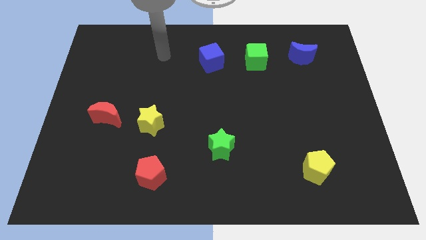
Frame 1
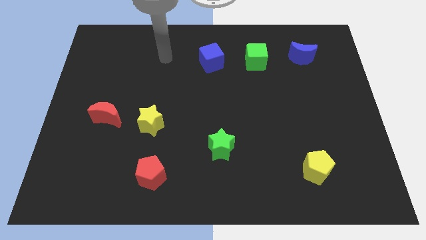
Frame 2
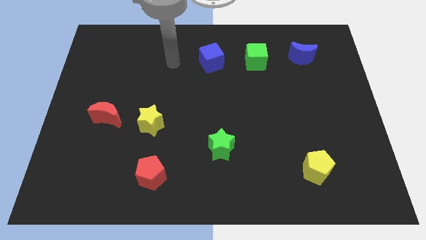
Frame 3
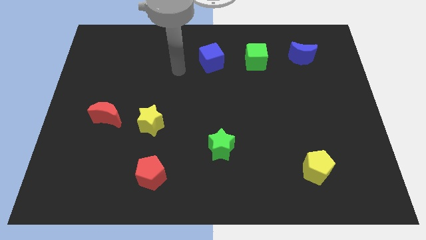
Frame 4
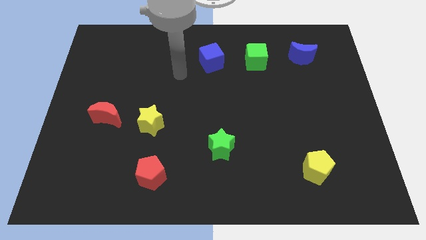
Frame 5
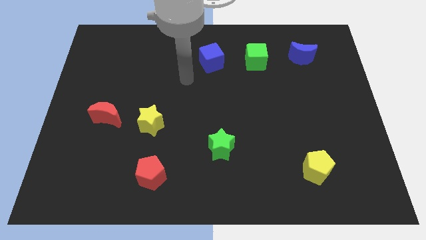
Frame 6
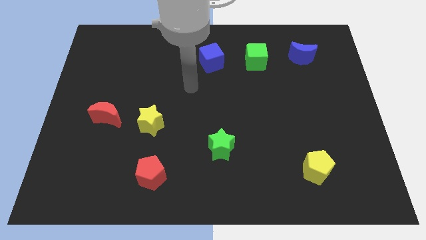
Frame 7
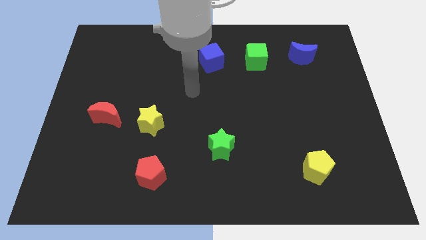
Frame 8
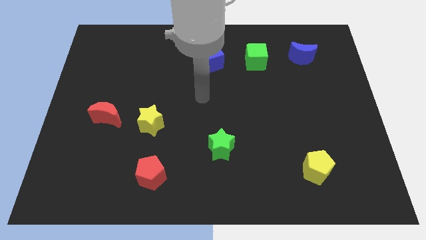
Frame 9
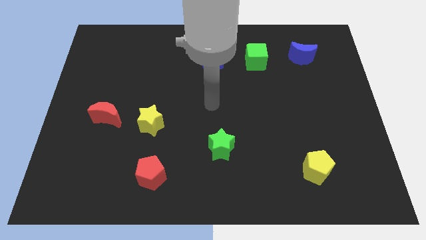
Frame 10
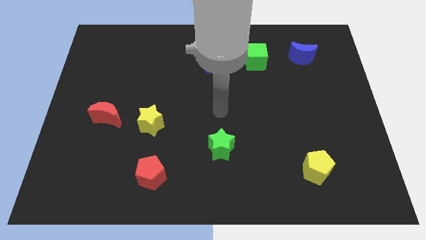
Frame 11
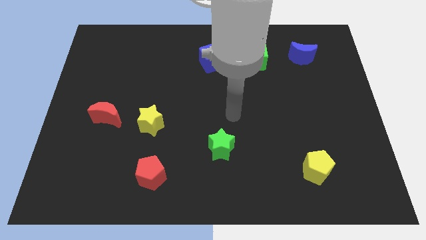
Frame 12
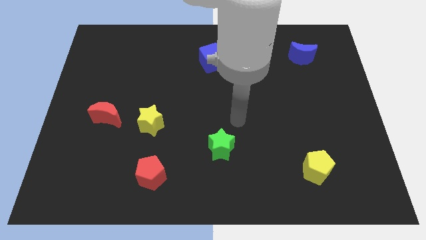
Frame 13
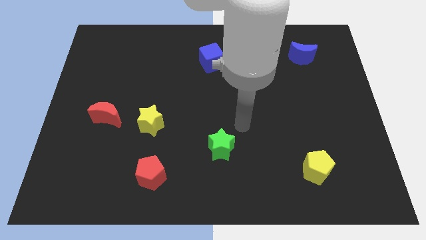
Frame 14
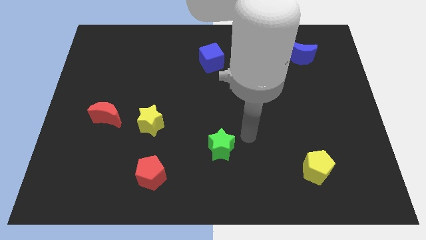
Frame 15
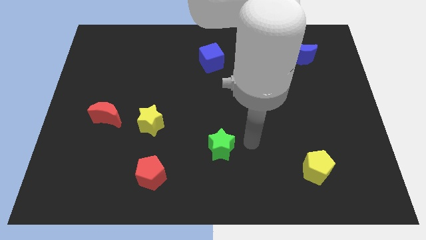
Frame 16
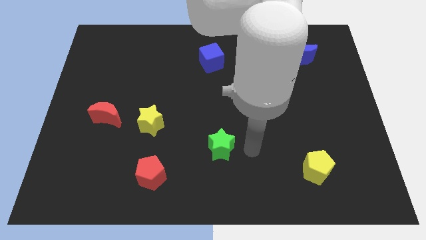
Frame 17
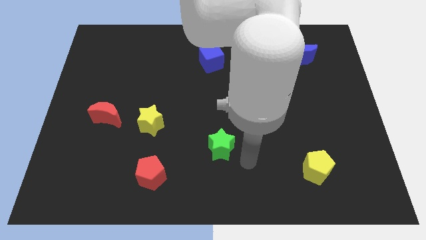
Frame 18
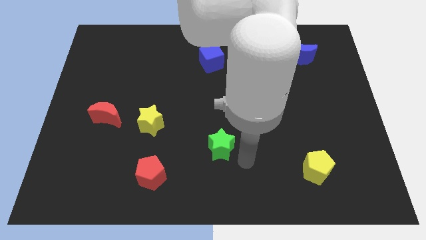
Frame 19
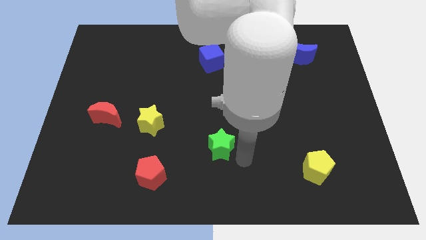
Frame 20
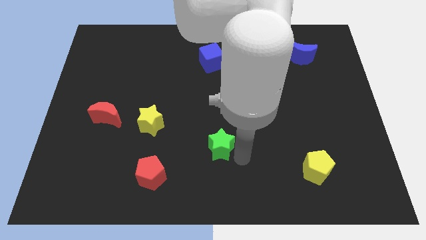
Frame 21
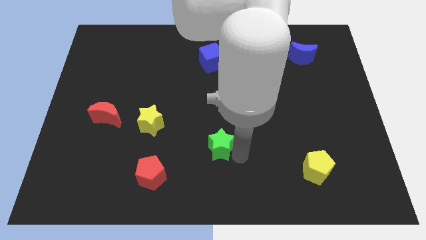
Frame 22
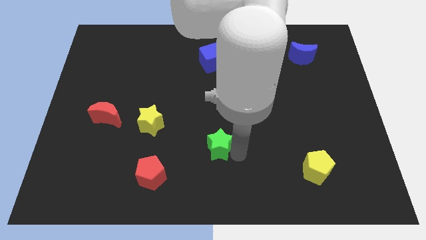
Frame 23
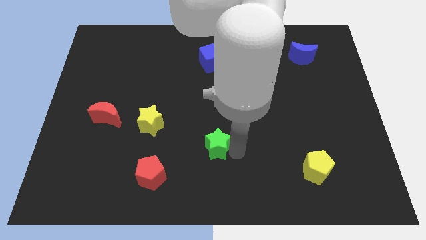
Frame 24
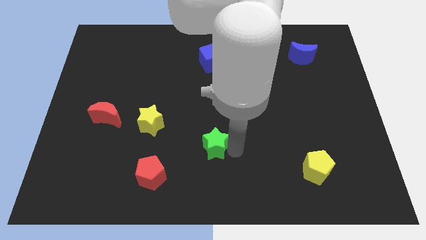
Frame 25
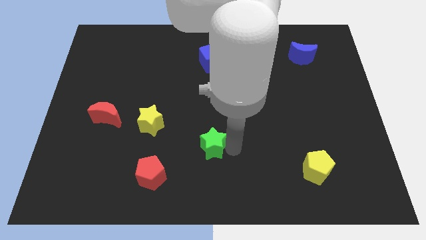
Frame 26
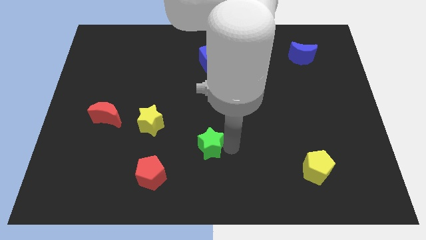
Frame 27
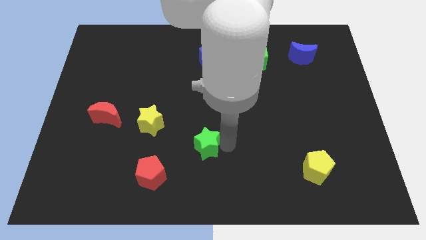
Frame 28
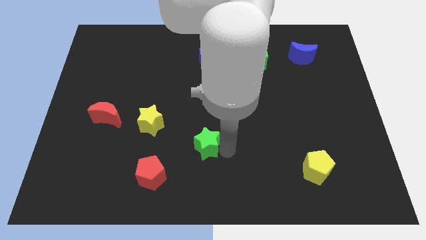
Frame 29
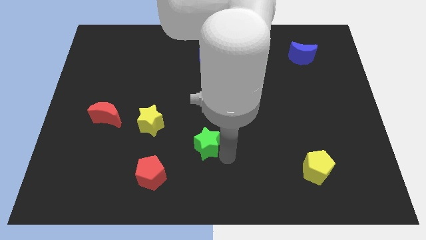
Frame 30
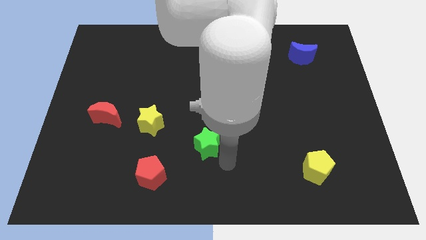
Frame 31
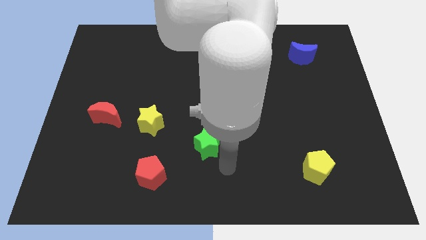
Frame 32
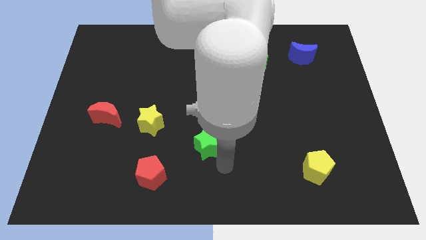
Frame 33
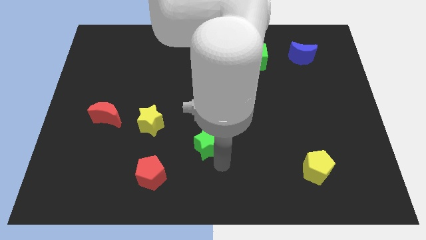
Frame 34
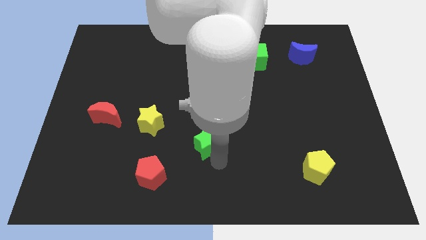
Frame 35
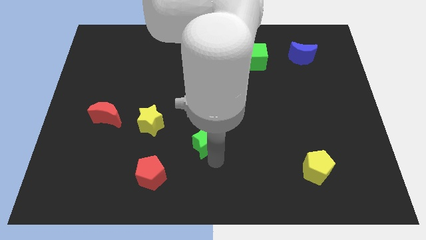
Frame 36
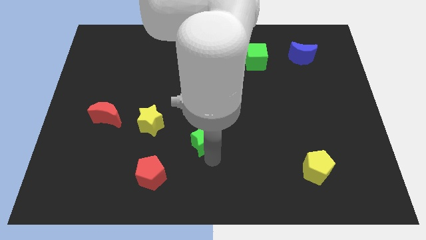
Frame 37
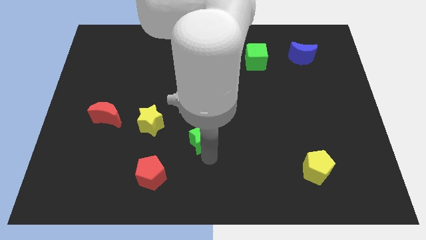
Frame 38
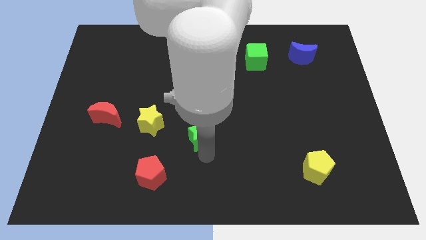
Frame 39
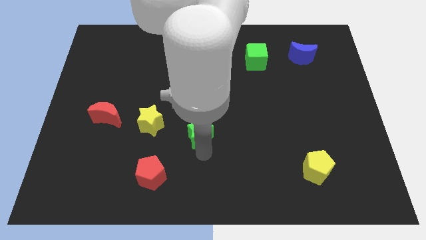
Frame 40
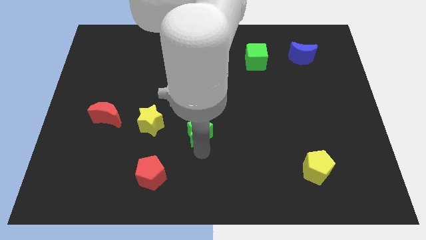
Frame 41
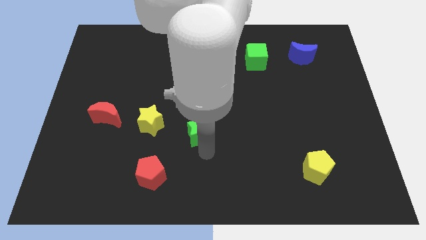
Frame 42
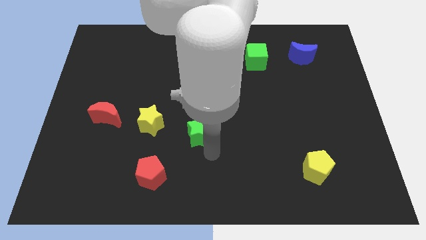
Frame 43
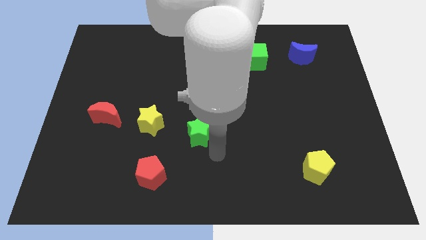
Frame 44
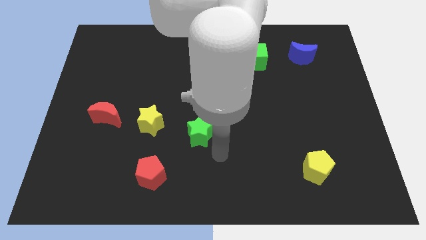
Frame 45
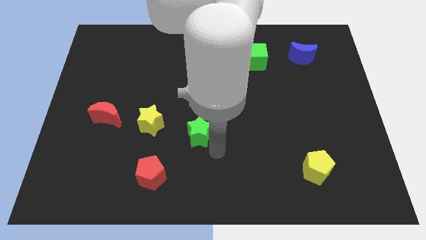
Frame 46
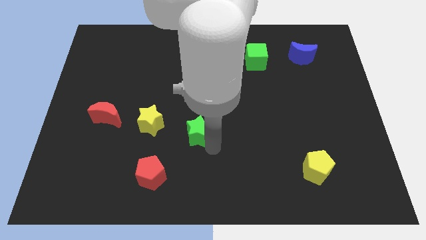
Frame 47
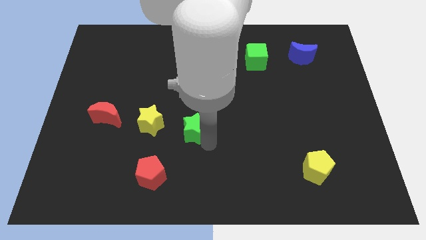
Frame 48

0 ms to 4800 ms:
slide the green star diagonally upwards and to the left somewhat

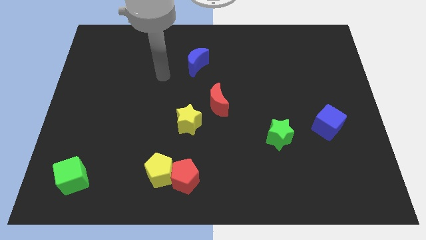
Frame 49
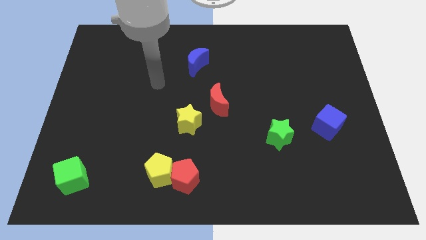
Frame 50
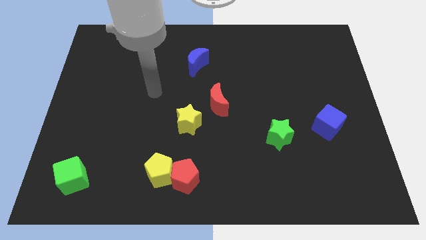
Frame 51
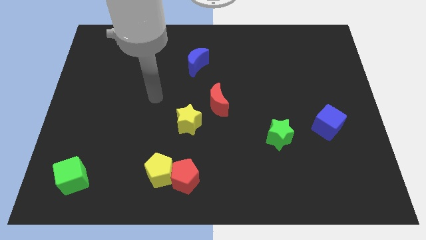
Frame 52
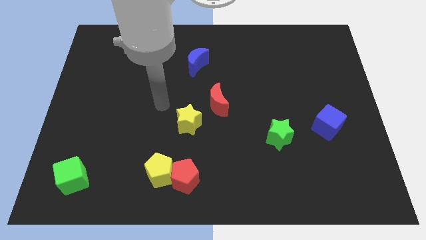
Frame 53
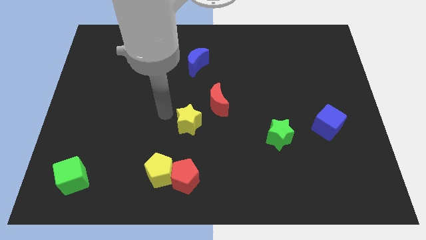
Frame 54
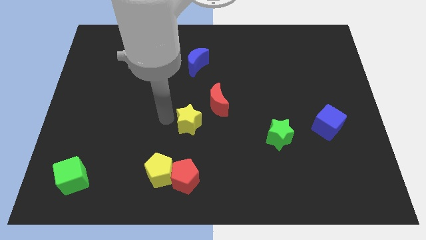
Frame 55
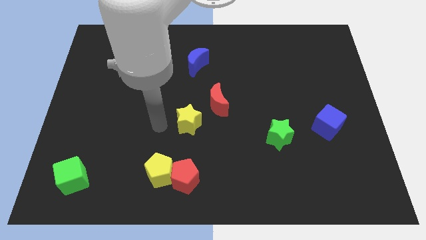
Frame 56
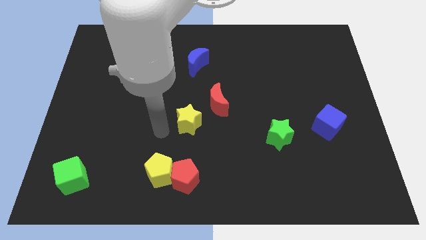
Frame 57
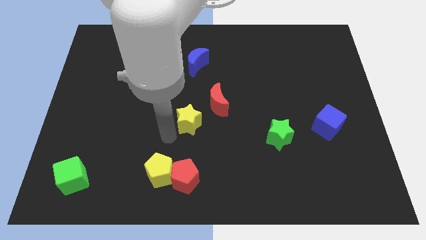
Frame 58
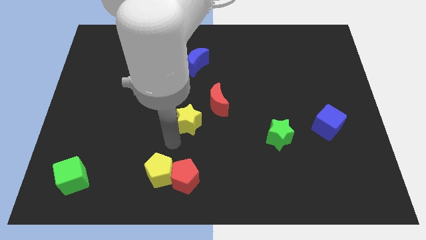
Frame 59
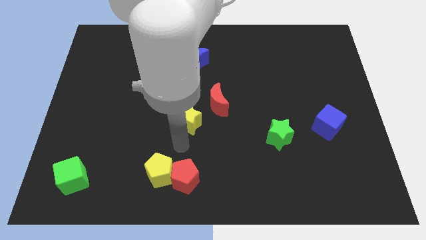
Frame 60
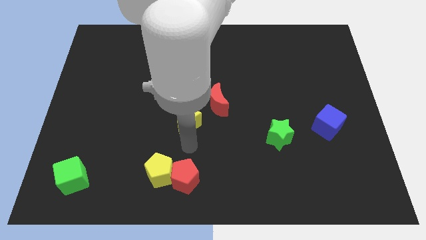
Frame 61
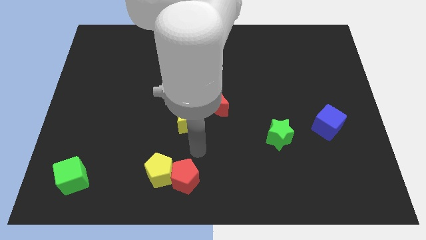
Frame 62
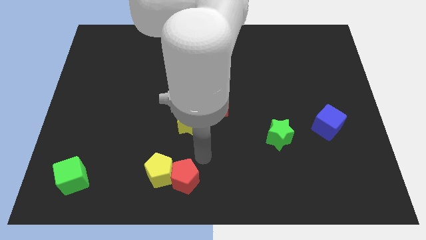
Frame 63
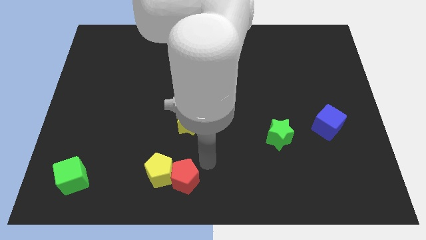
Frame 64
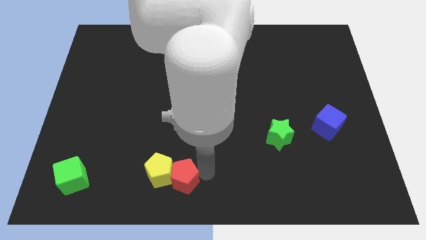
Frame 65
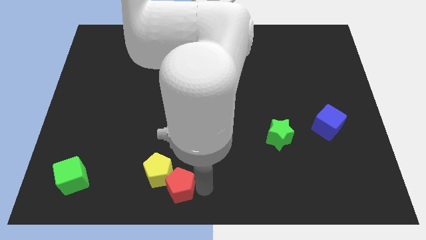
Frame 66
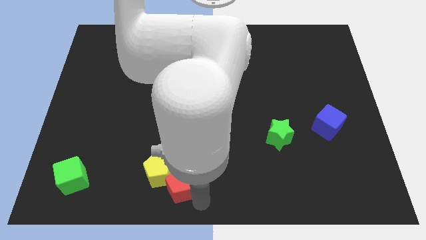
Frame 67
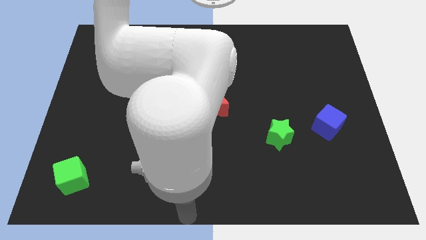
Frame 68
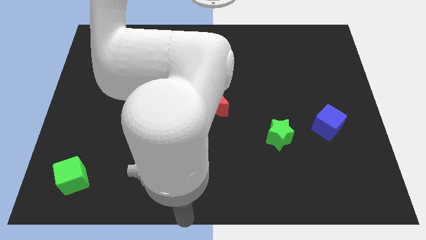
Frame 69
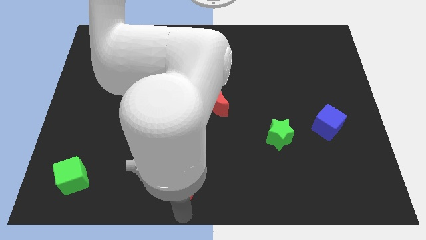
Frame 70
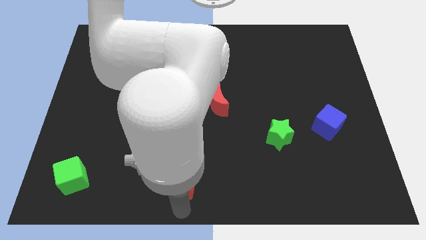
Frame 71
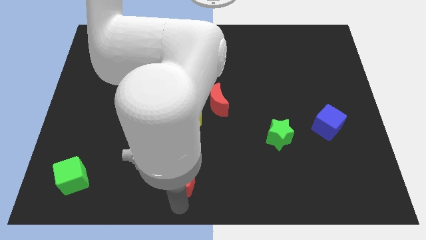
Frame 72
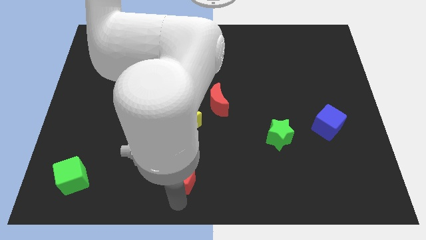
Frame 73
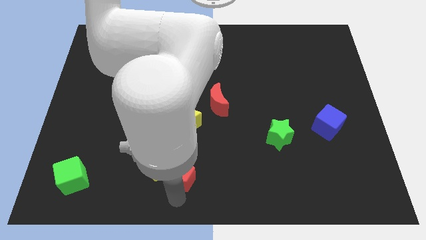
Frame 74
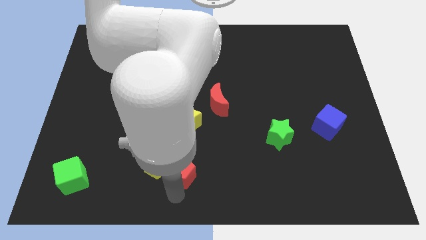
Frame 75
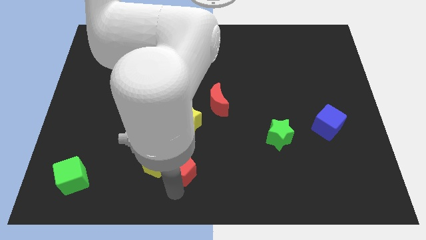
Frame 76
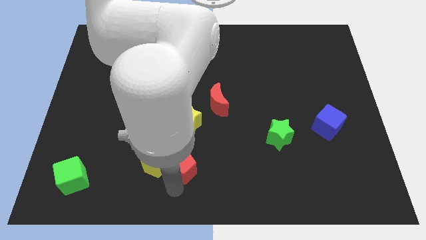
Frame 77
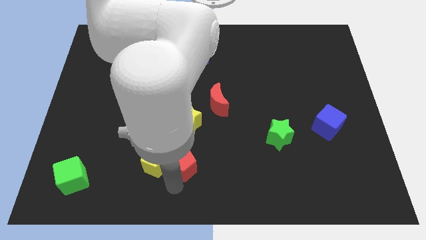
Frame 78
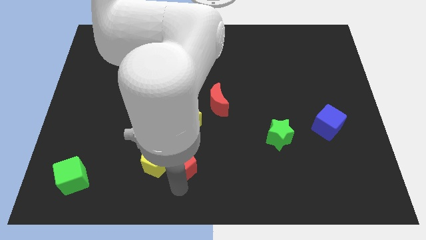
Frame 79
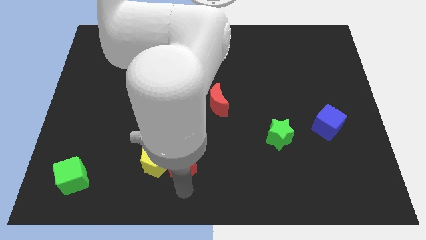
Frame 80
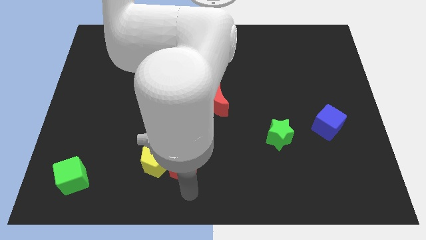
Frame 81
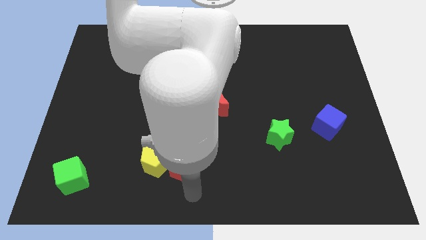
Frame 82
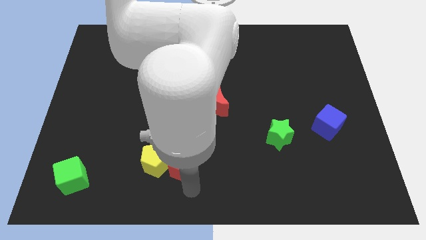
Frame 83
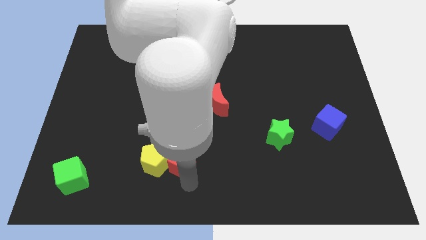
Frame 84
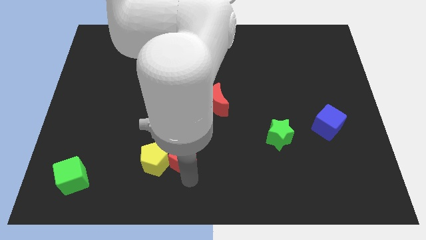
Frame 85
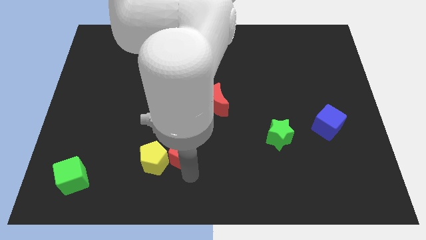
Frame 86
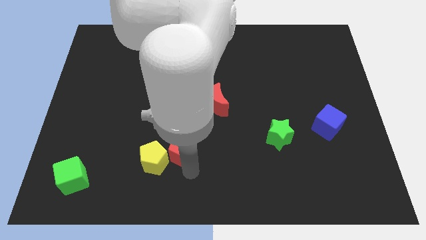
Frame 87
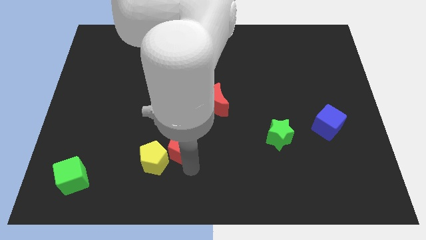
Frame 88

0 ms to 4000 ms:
slide the red pentagon up a little
